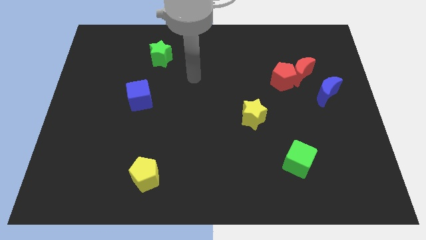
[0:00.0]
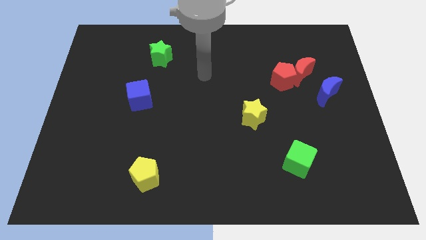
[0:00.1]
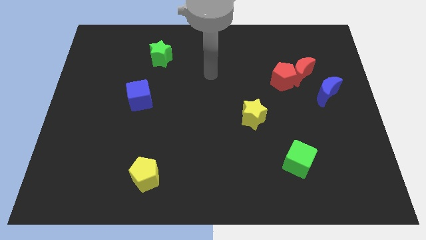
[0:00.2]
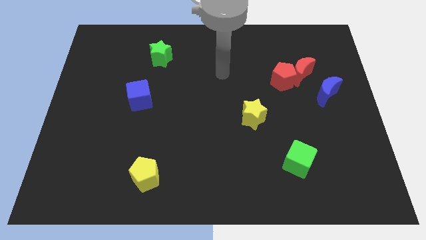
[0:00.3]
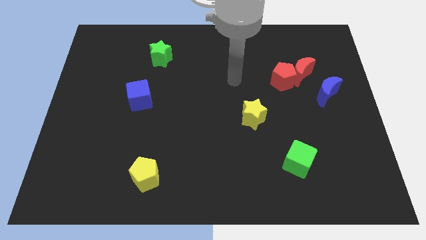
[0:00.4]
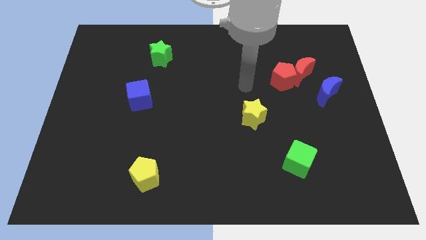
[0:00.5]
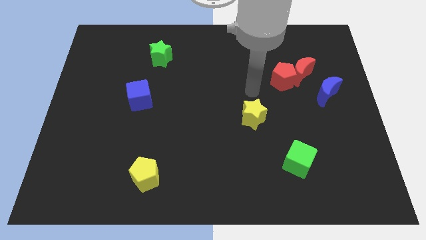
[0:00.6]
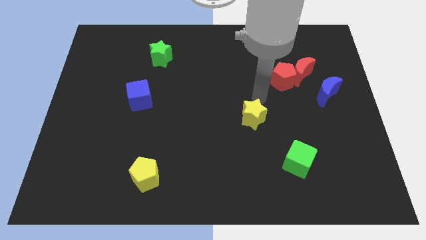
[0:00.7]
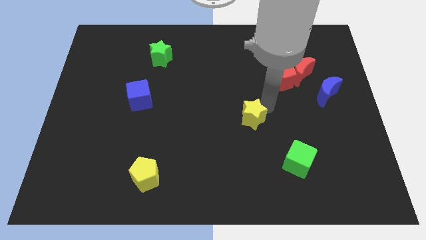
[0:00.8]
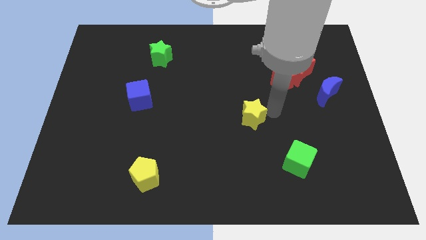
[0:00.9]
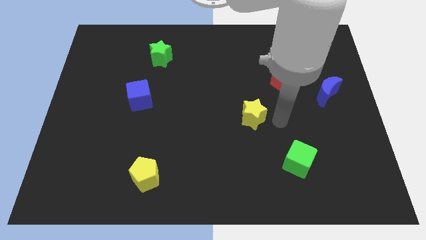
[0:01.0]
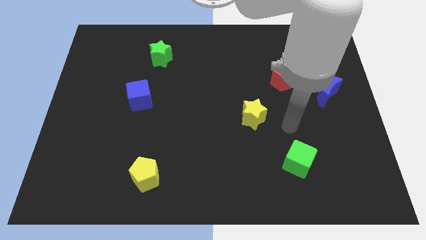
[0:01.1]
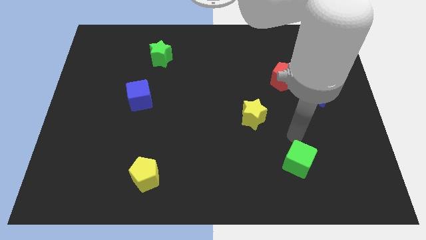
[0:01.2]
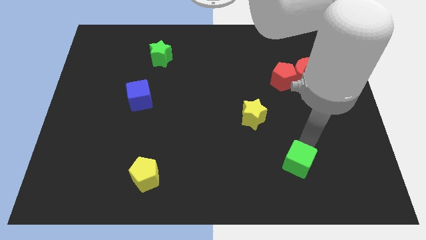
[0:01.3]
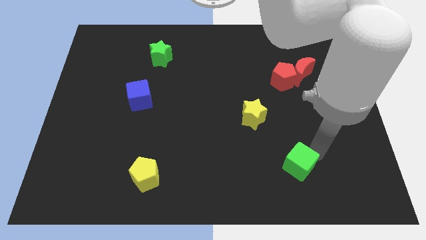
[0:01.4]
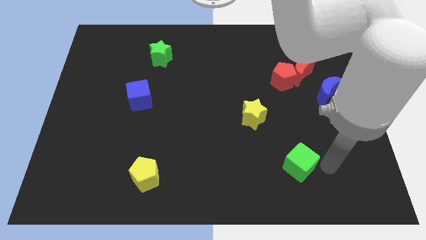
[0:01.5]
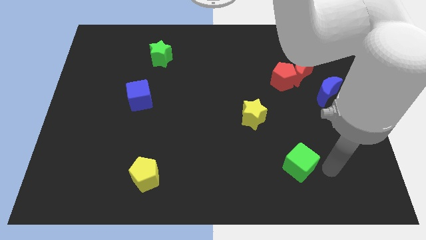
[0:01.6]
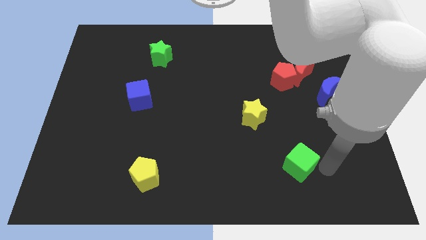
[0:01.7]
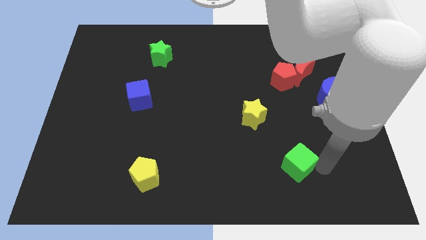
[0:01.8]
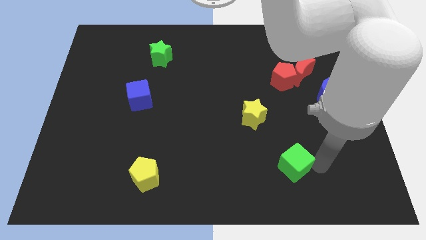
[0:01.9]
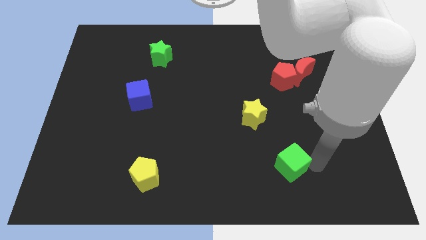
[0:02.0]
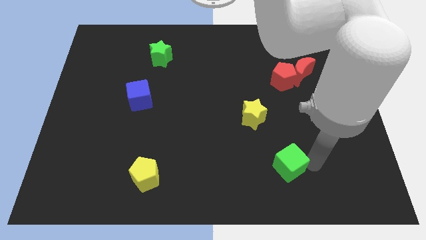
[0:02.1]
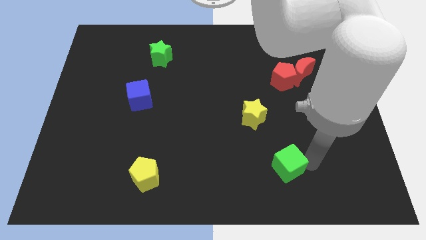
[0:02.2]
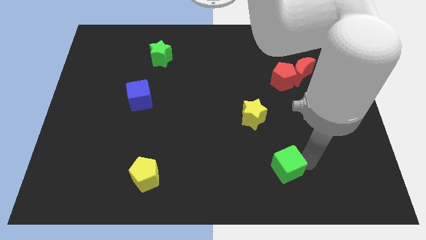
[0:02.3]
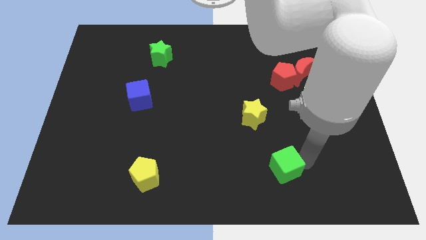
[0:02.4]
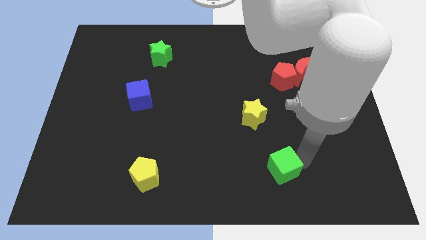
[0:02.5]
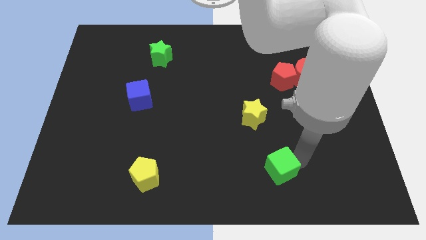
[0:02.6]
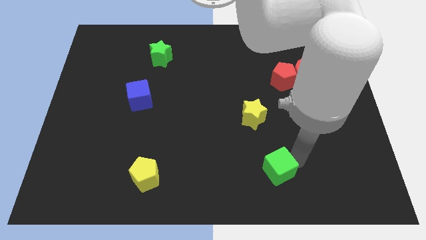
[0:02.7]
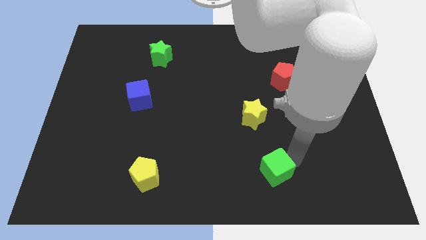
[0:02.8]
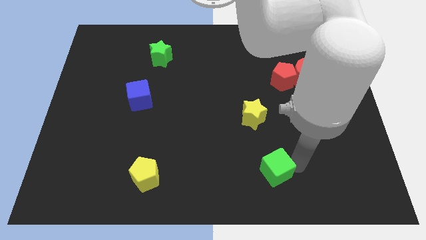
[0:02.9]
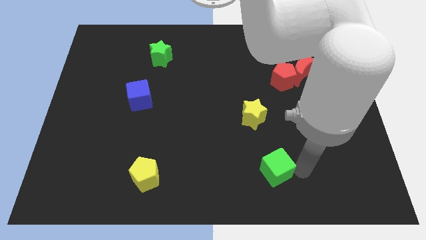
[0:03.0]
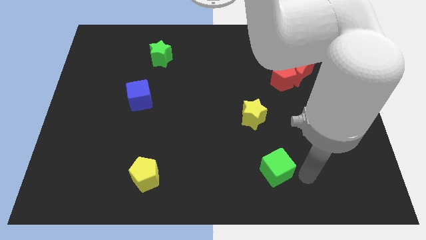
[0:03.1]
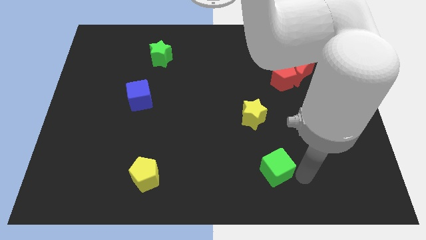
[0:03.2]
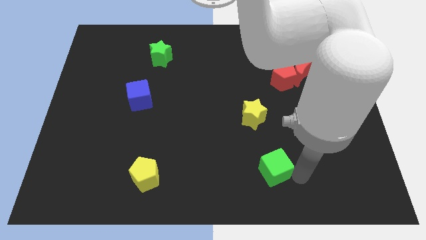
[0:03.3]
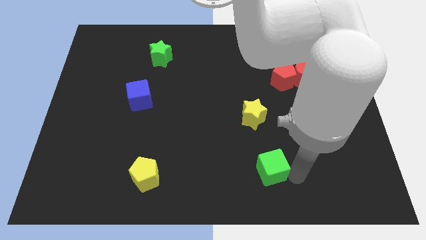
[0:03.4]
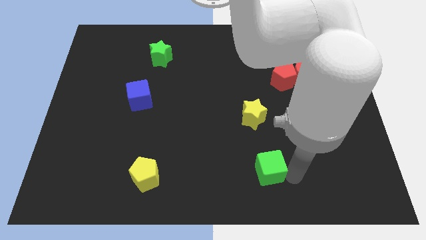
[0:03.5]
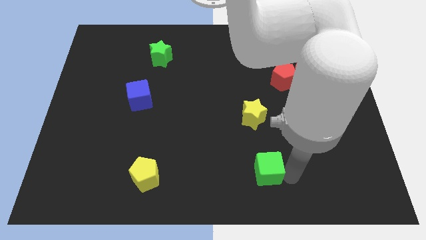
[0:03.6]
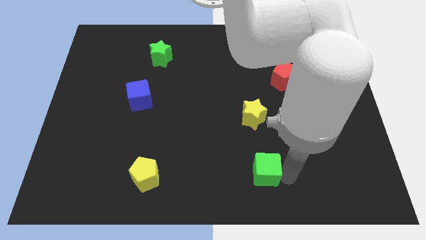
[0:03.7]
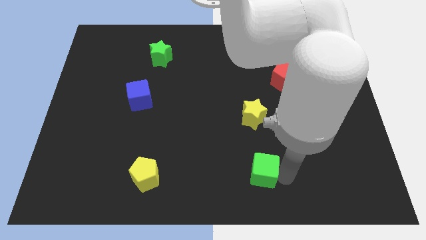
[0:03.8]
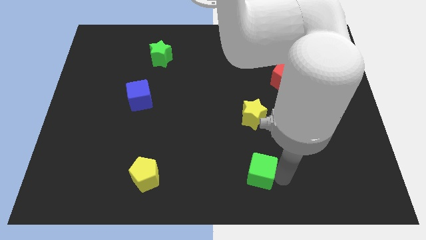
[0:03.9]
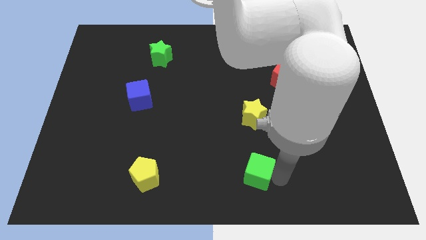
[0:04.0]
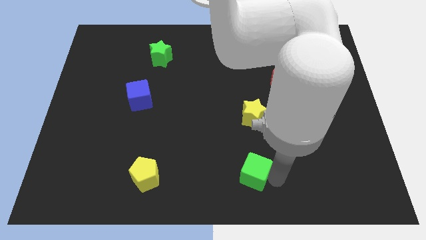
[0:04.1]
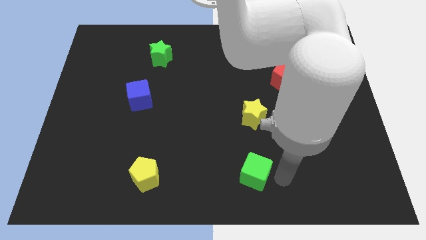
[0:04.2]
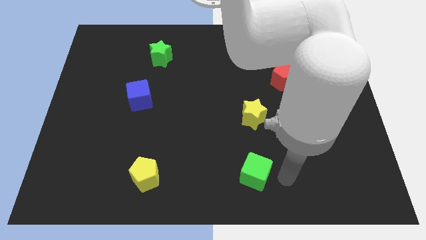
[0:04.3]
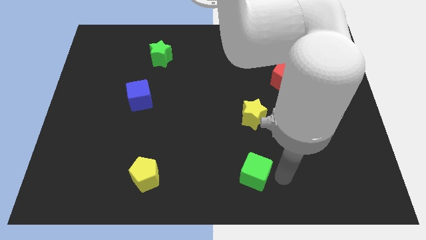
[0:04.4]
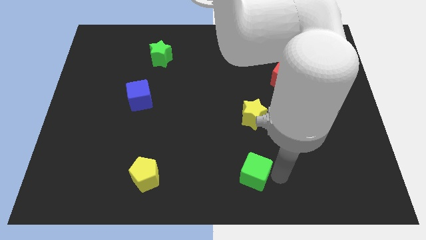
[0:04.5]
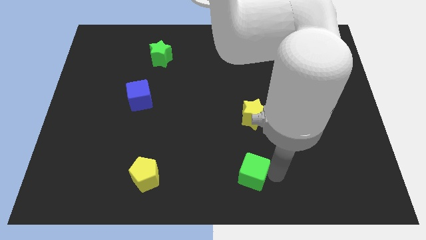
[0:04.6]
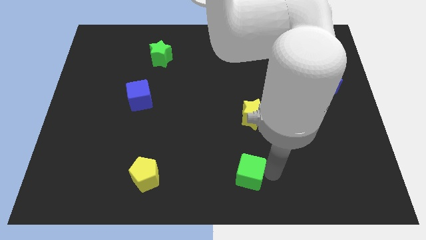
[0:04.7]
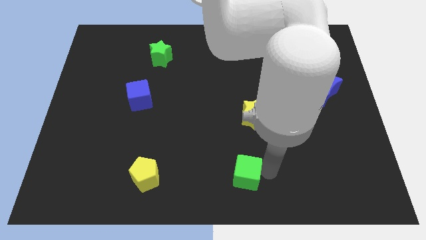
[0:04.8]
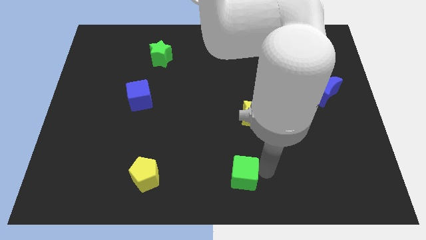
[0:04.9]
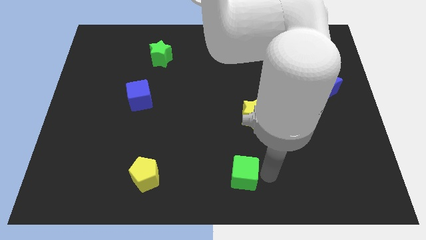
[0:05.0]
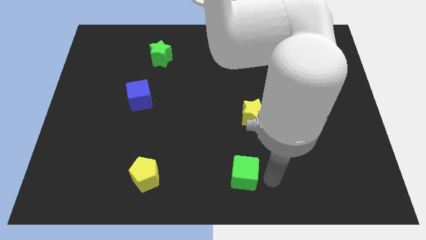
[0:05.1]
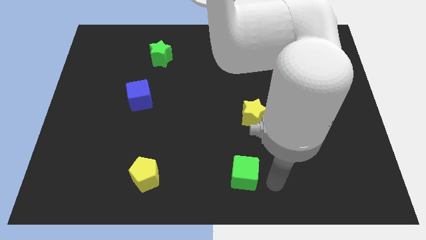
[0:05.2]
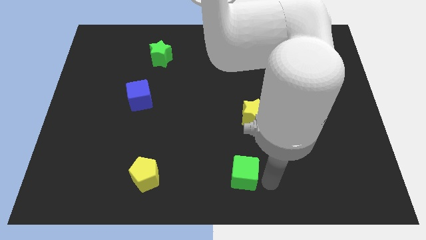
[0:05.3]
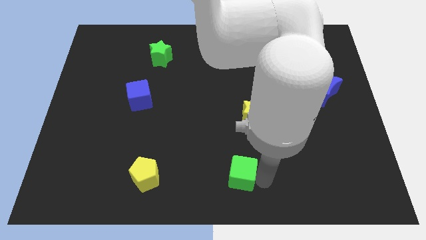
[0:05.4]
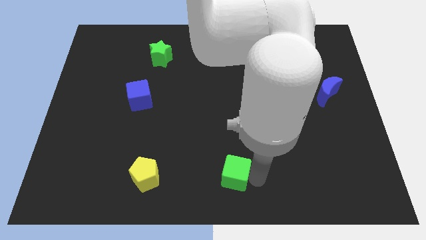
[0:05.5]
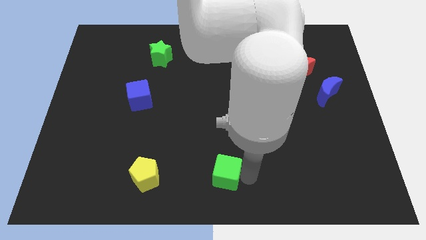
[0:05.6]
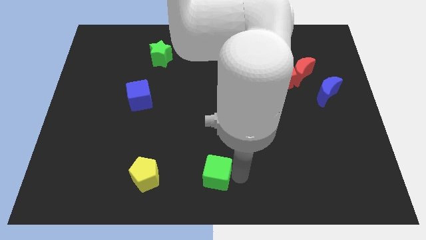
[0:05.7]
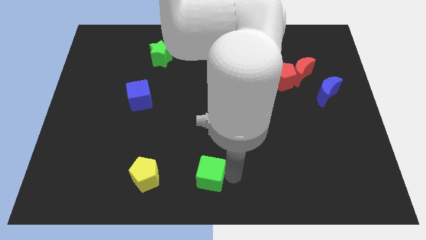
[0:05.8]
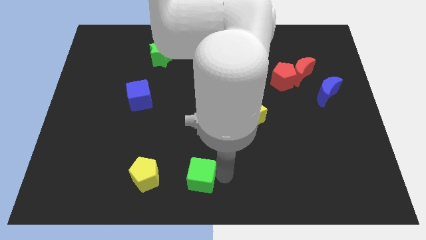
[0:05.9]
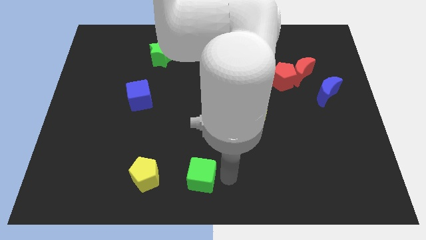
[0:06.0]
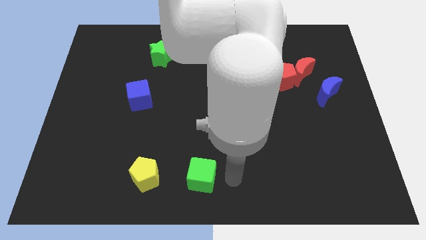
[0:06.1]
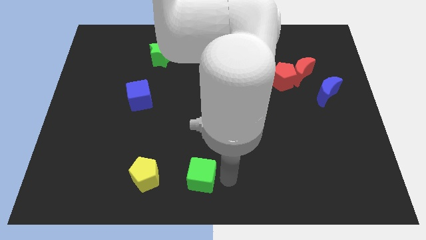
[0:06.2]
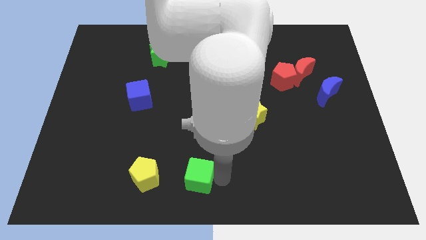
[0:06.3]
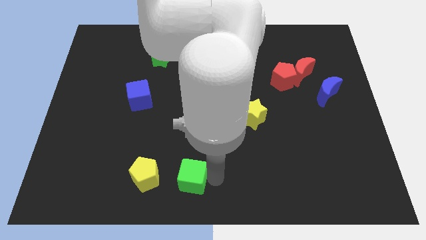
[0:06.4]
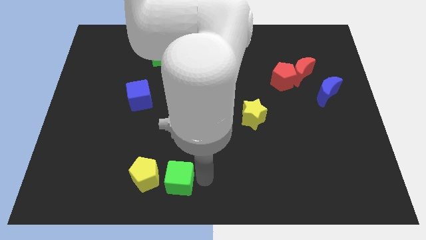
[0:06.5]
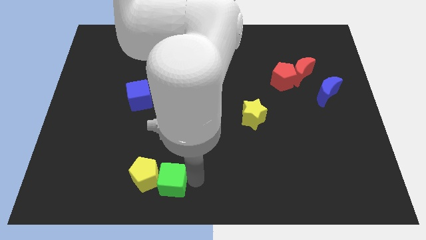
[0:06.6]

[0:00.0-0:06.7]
put the green cube towards the yellow pentagon
